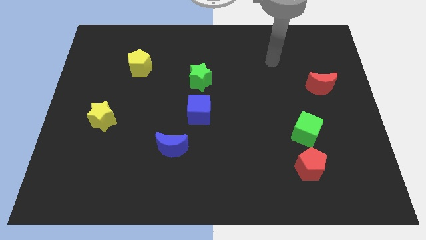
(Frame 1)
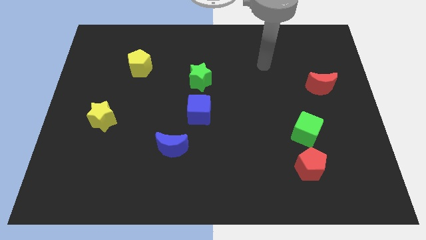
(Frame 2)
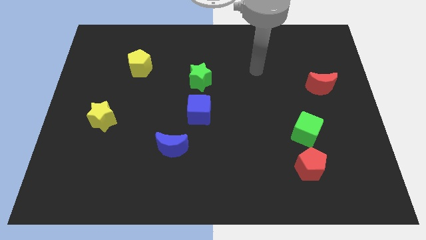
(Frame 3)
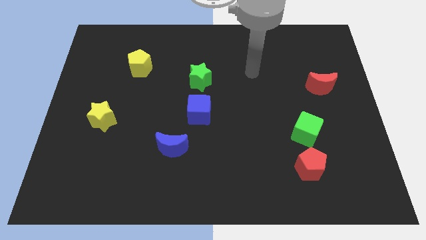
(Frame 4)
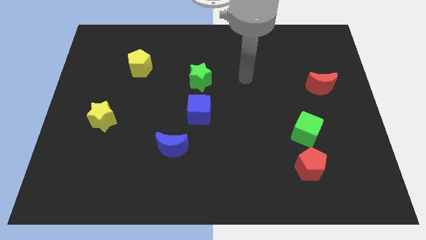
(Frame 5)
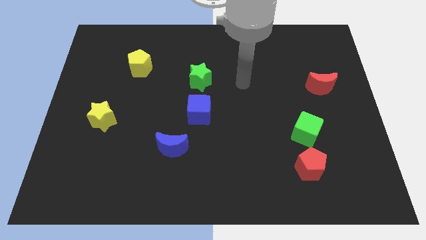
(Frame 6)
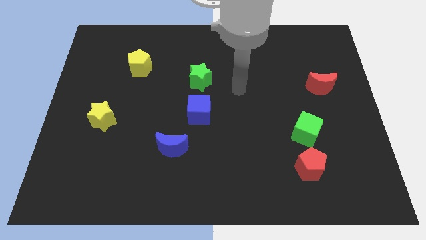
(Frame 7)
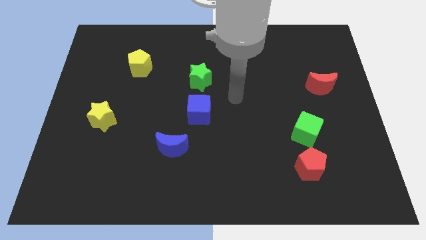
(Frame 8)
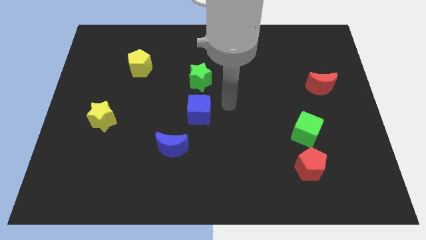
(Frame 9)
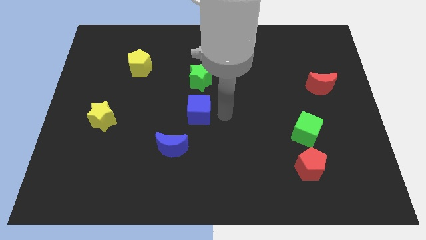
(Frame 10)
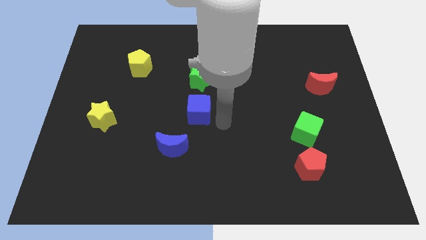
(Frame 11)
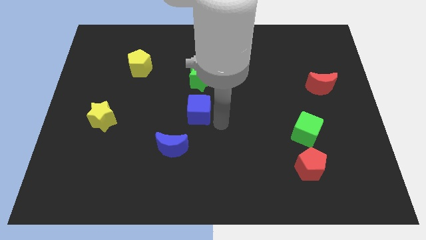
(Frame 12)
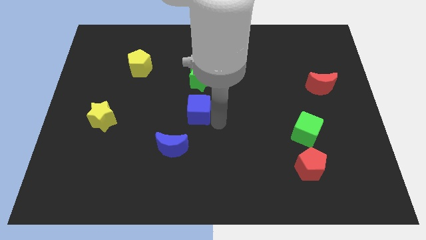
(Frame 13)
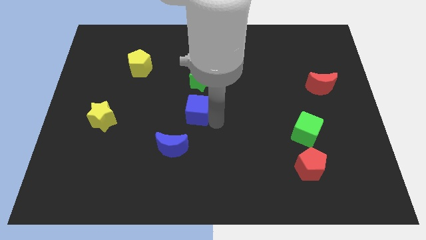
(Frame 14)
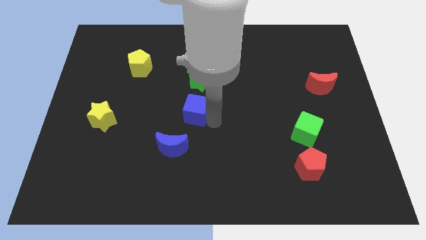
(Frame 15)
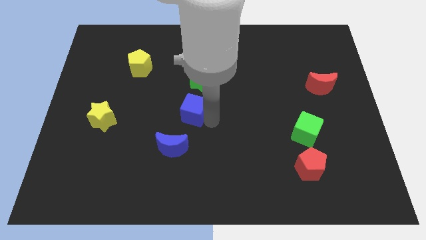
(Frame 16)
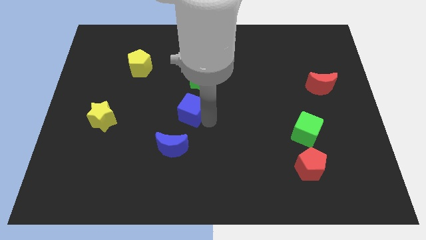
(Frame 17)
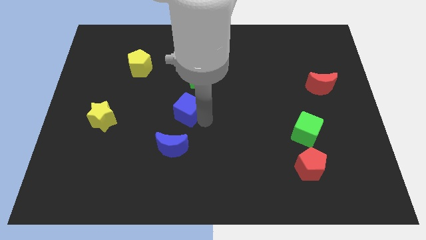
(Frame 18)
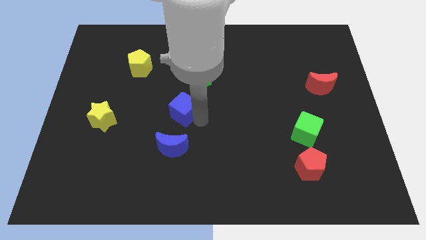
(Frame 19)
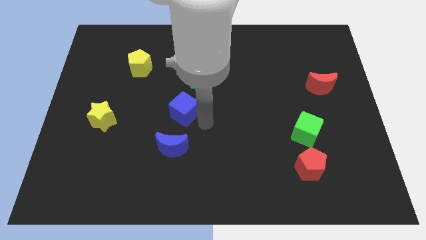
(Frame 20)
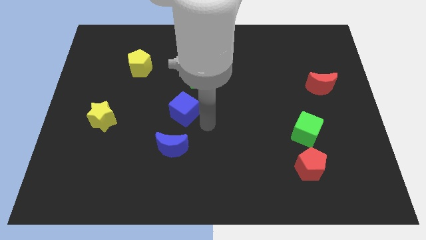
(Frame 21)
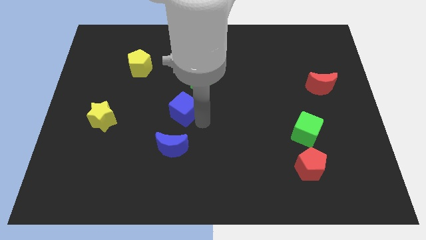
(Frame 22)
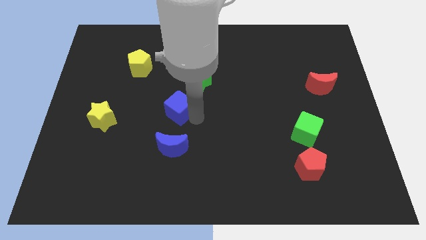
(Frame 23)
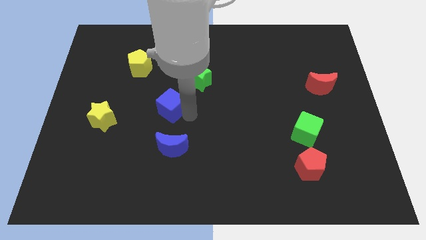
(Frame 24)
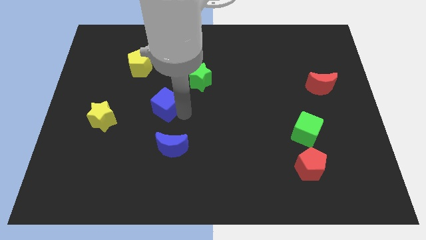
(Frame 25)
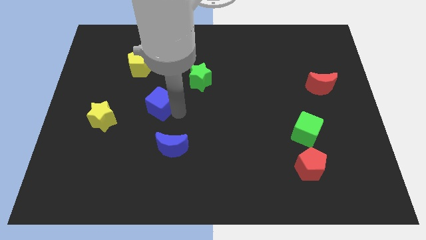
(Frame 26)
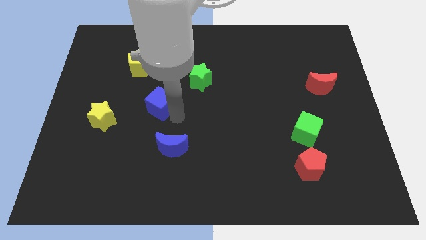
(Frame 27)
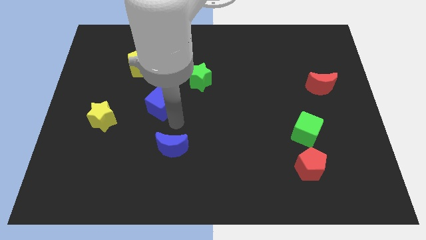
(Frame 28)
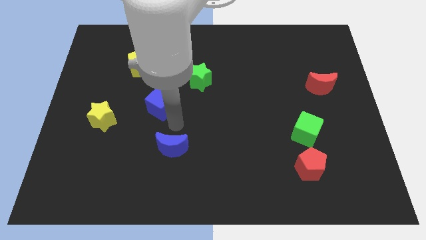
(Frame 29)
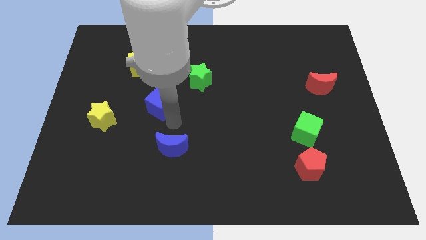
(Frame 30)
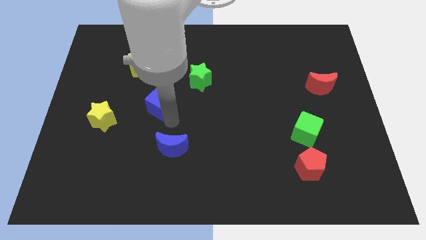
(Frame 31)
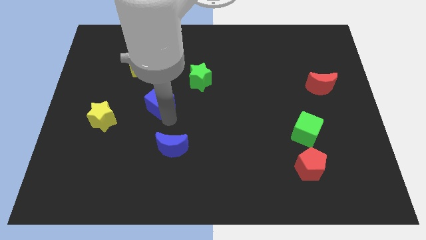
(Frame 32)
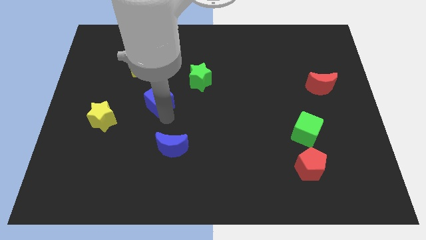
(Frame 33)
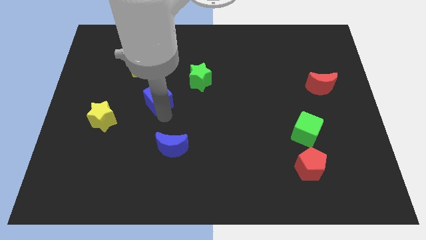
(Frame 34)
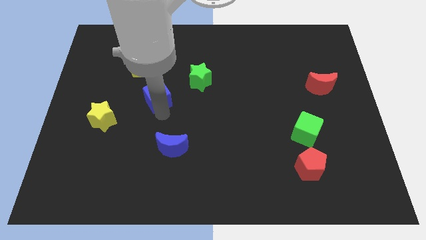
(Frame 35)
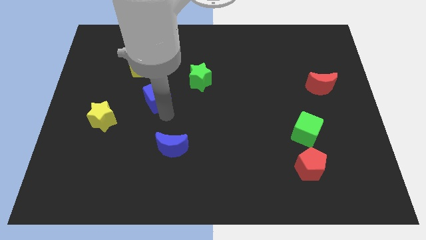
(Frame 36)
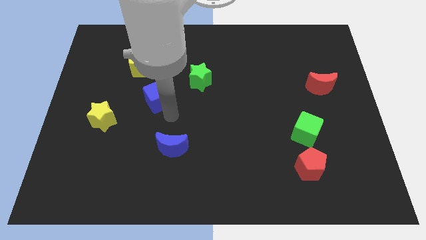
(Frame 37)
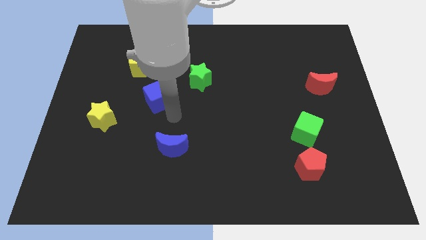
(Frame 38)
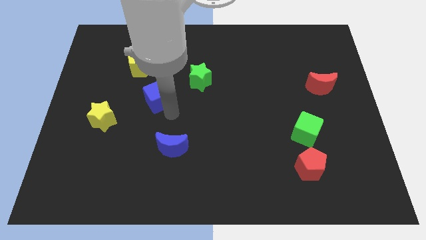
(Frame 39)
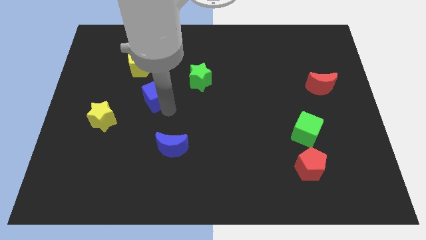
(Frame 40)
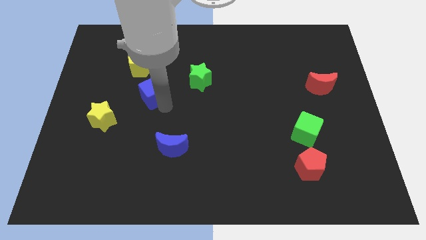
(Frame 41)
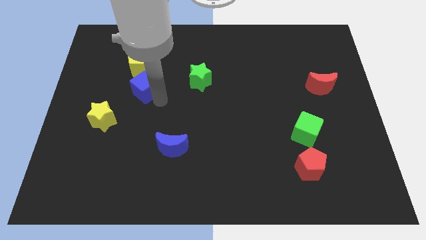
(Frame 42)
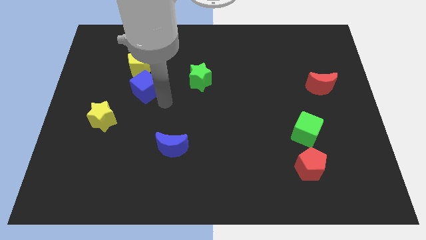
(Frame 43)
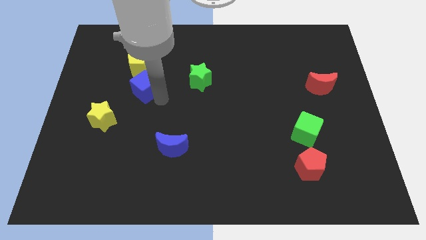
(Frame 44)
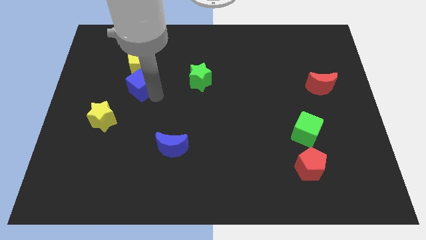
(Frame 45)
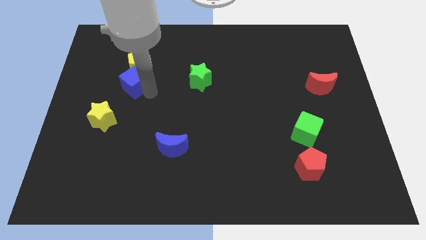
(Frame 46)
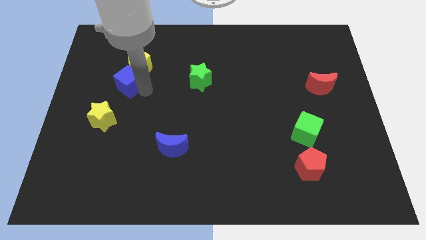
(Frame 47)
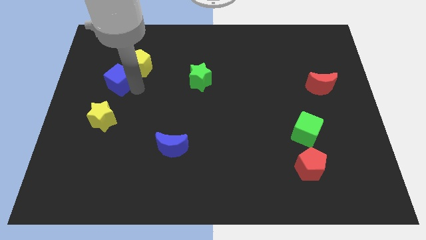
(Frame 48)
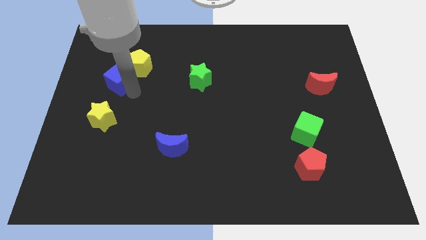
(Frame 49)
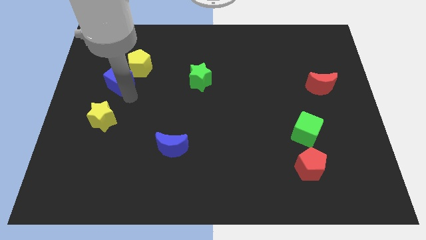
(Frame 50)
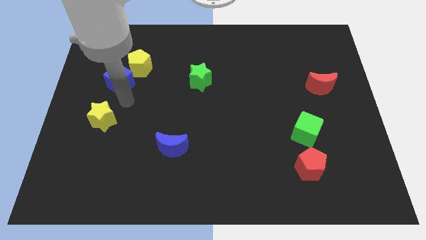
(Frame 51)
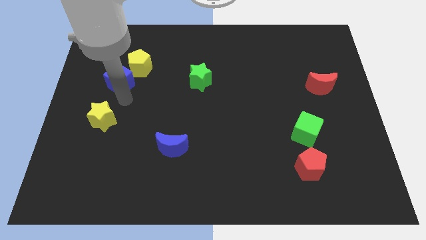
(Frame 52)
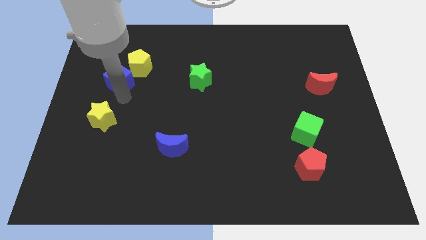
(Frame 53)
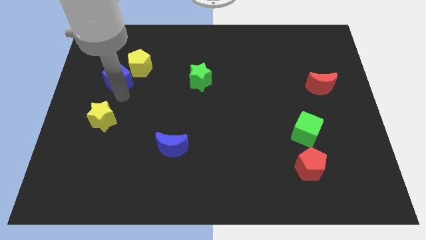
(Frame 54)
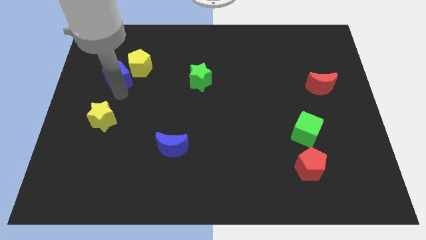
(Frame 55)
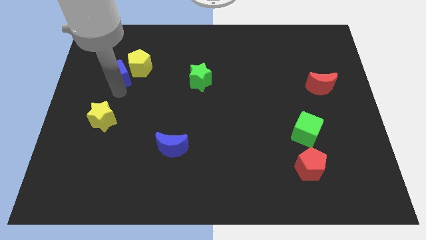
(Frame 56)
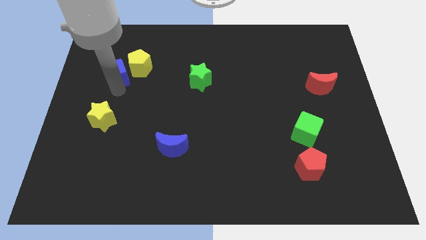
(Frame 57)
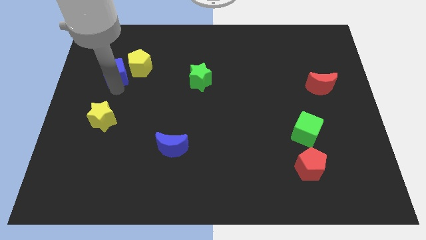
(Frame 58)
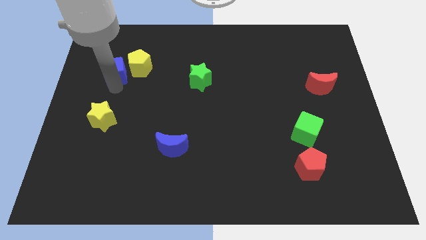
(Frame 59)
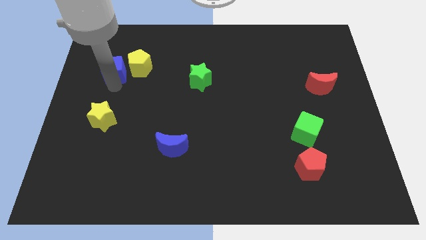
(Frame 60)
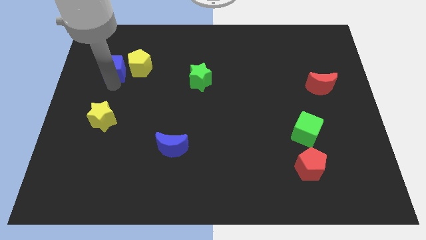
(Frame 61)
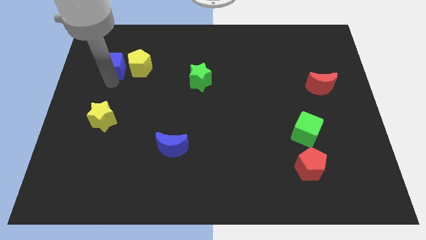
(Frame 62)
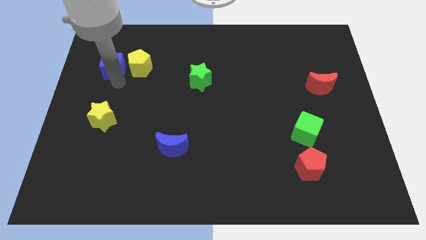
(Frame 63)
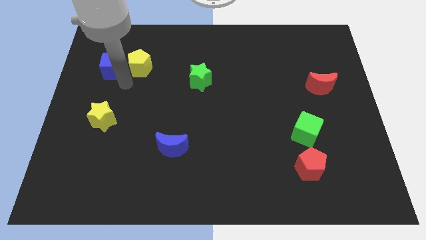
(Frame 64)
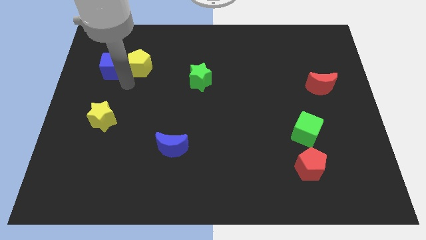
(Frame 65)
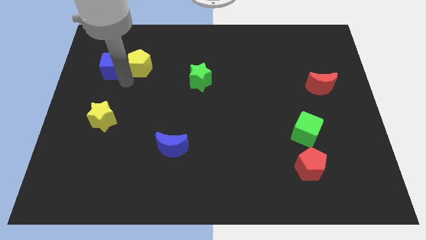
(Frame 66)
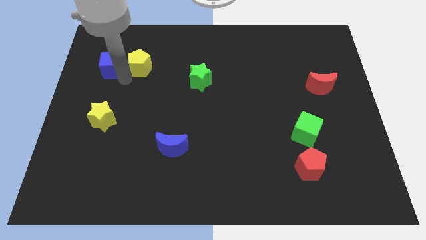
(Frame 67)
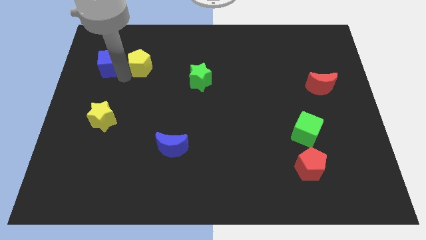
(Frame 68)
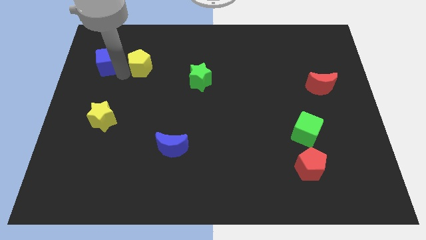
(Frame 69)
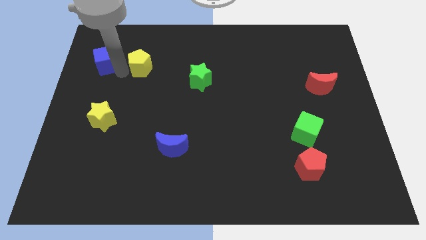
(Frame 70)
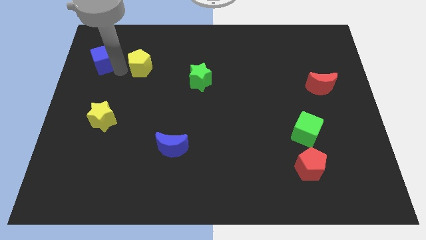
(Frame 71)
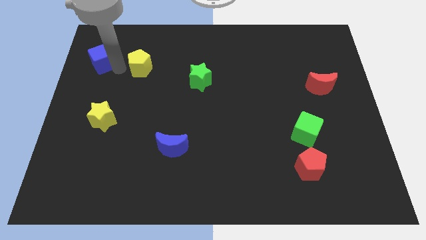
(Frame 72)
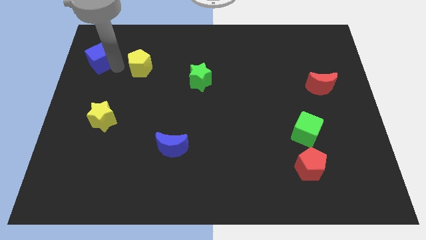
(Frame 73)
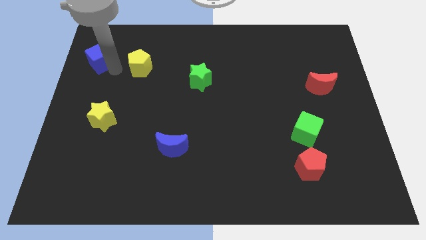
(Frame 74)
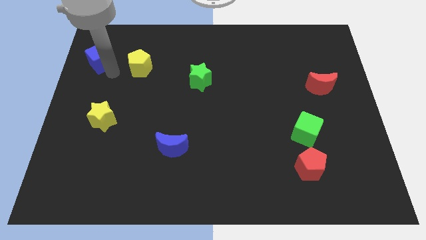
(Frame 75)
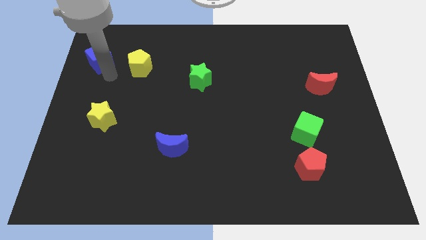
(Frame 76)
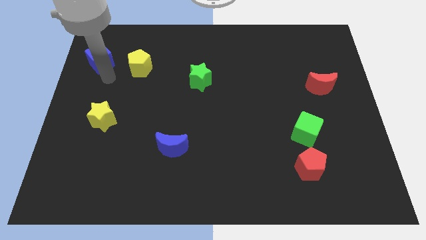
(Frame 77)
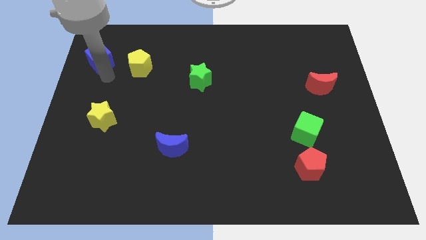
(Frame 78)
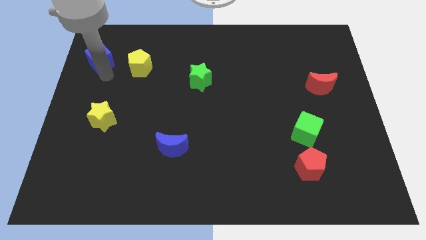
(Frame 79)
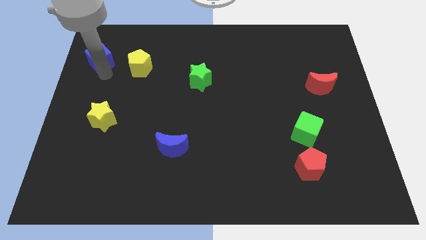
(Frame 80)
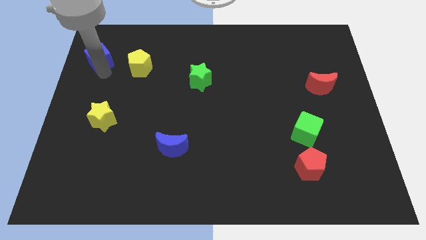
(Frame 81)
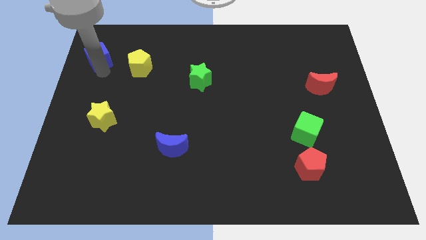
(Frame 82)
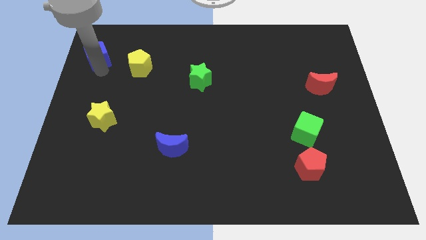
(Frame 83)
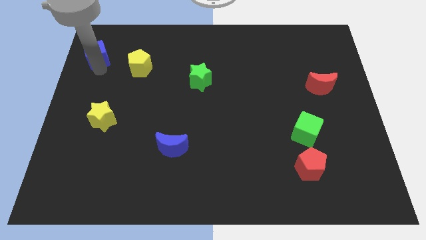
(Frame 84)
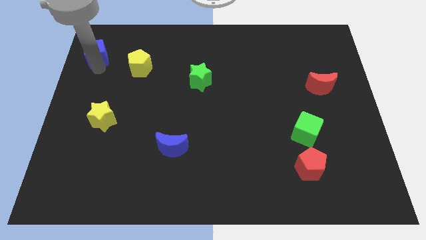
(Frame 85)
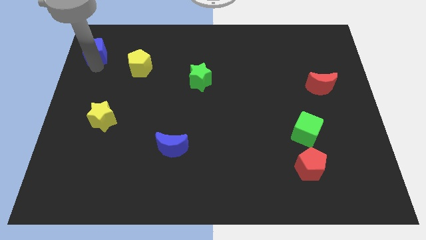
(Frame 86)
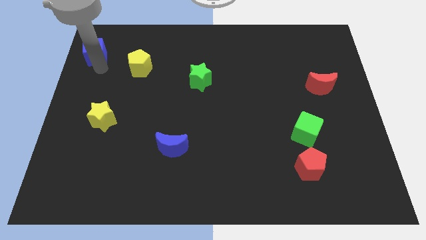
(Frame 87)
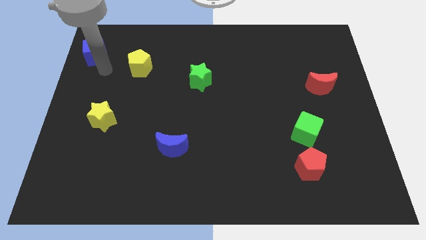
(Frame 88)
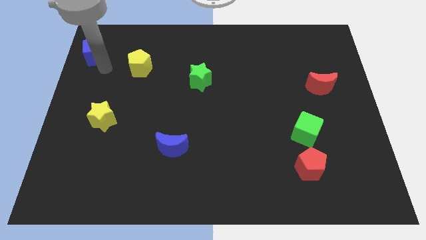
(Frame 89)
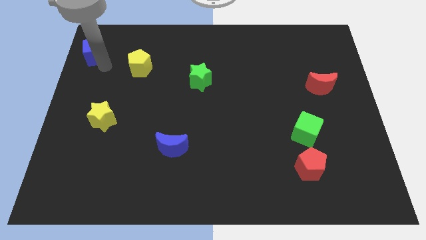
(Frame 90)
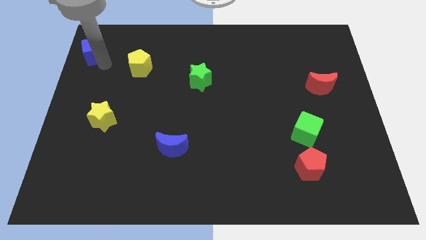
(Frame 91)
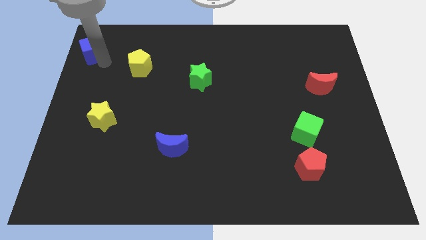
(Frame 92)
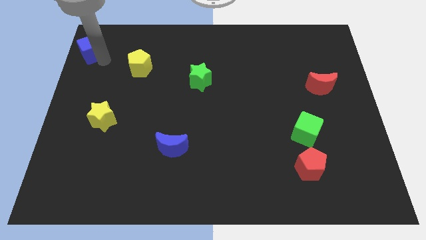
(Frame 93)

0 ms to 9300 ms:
slide the blue cube to the top left corner
